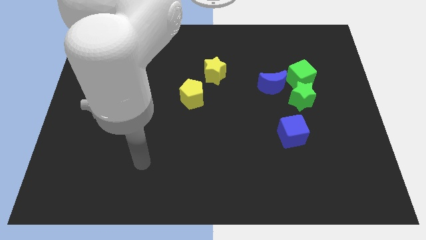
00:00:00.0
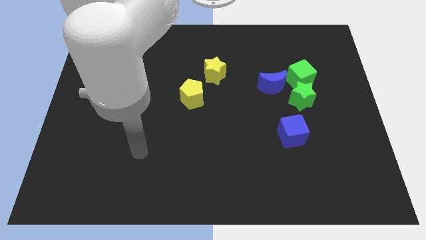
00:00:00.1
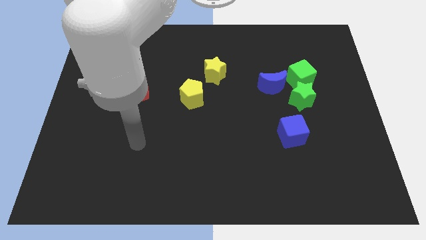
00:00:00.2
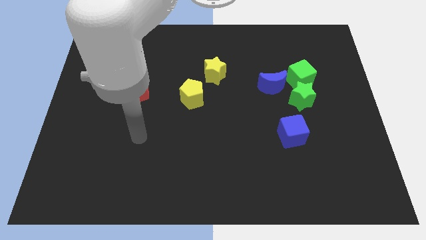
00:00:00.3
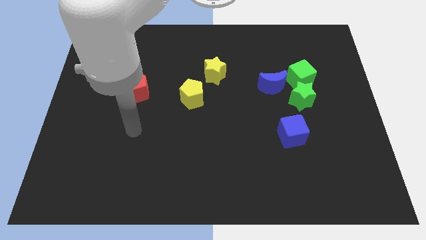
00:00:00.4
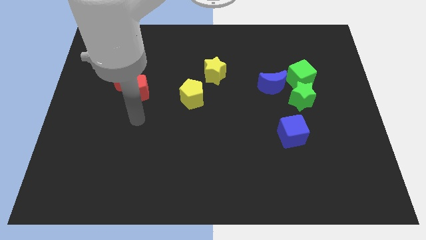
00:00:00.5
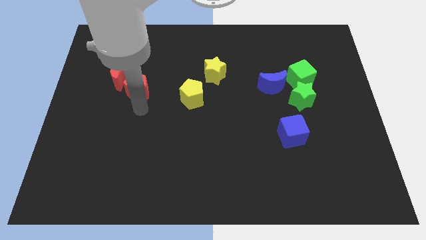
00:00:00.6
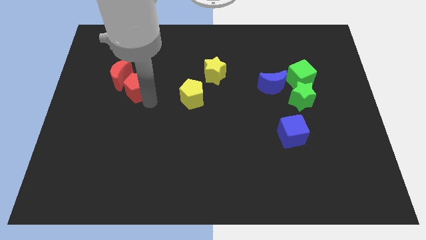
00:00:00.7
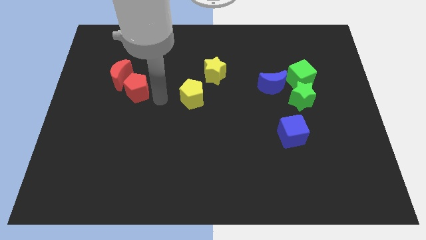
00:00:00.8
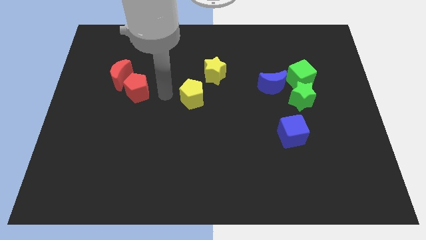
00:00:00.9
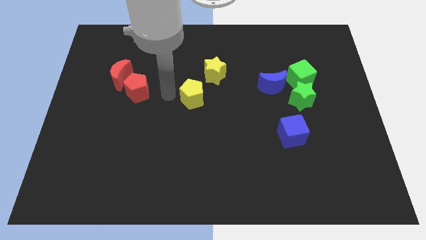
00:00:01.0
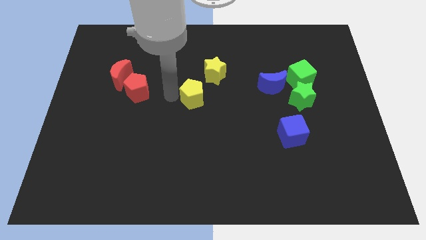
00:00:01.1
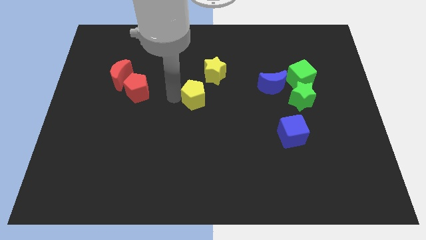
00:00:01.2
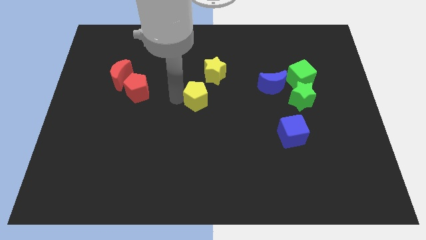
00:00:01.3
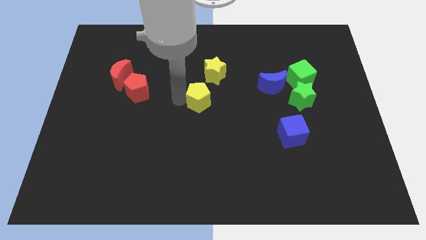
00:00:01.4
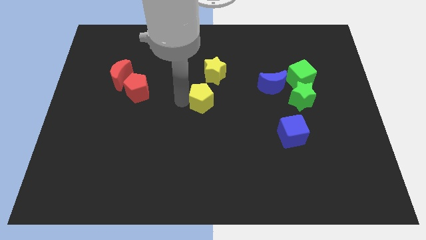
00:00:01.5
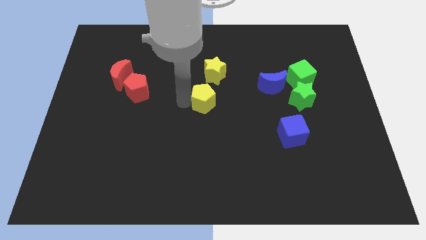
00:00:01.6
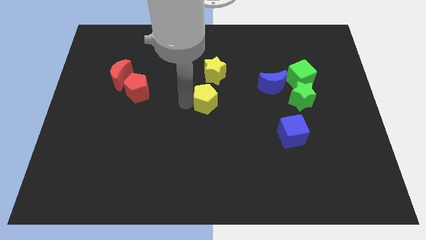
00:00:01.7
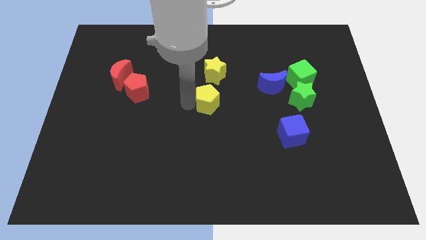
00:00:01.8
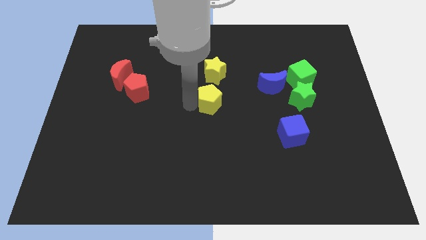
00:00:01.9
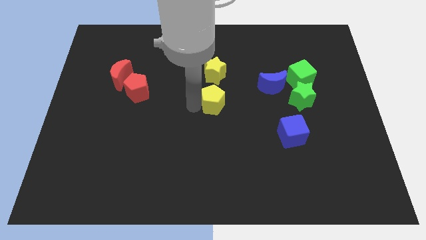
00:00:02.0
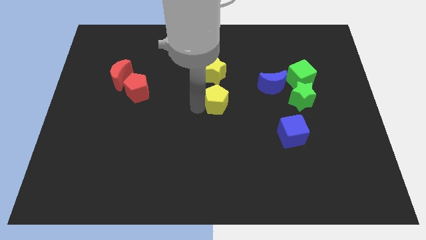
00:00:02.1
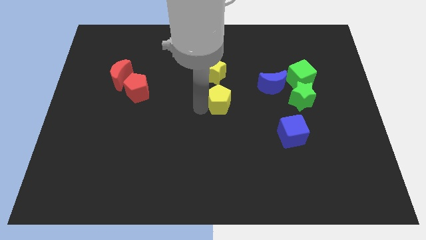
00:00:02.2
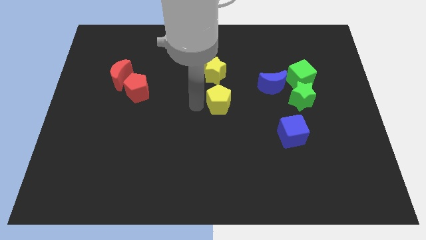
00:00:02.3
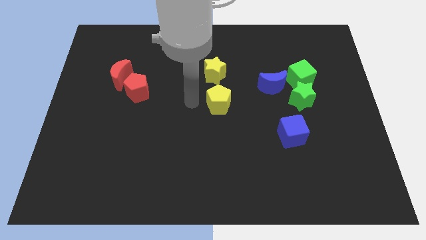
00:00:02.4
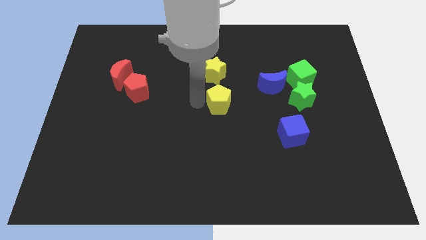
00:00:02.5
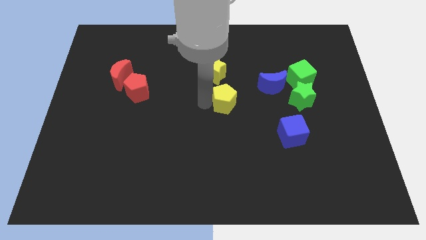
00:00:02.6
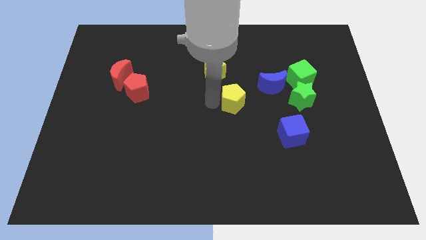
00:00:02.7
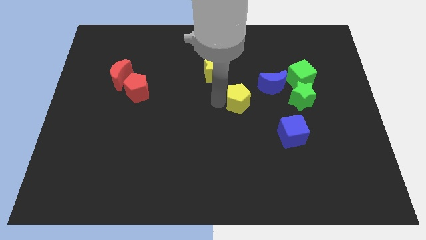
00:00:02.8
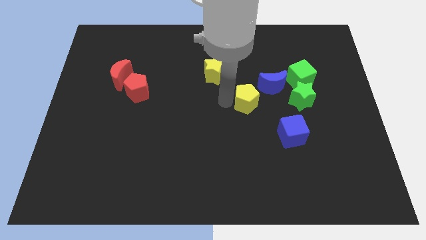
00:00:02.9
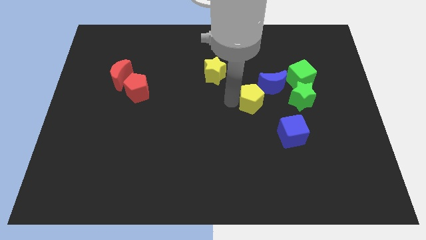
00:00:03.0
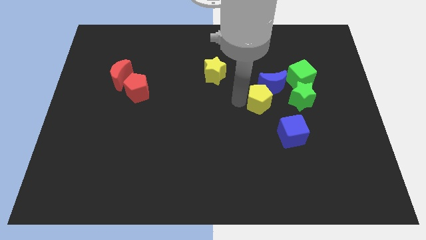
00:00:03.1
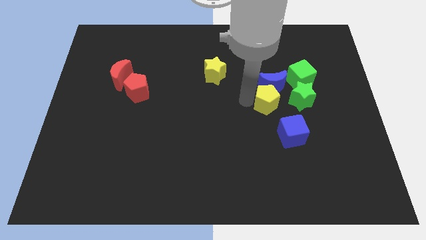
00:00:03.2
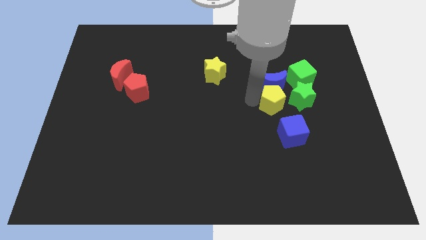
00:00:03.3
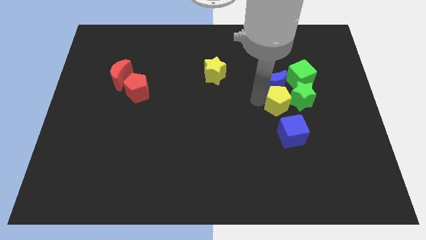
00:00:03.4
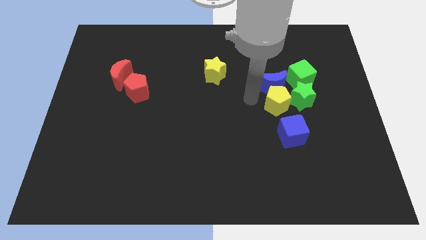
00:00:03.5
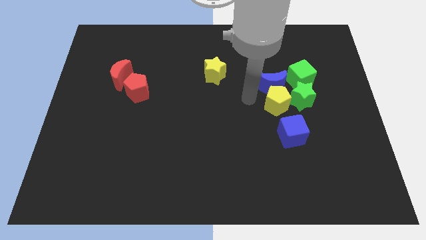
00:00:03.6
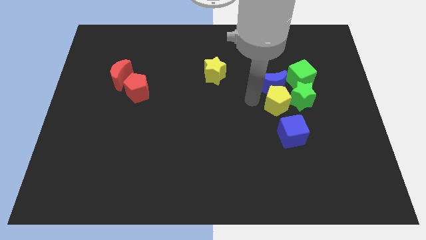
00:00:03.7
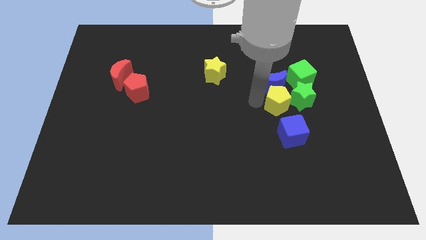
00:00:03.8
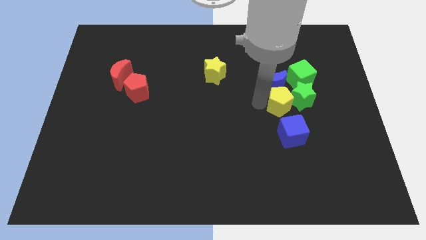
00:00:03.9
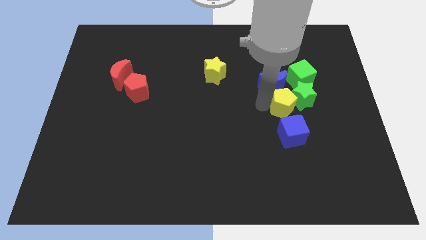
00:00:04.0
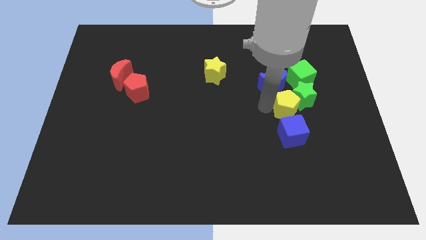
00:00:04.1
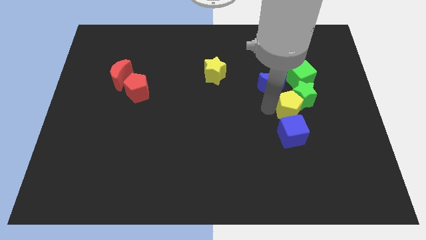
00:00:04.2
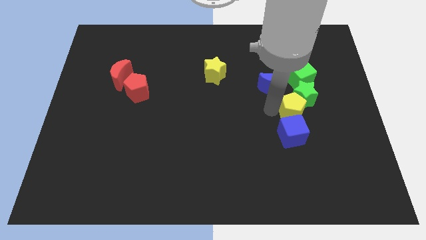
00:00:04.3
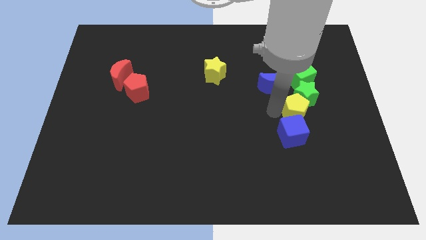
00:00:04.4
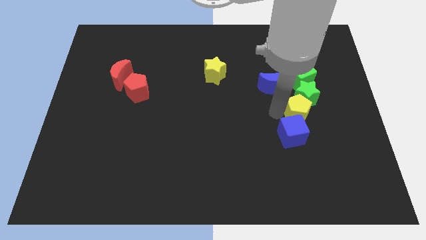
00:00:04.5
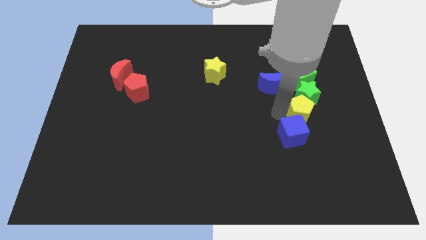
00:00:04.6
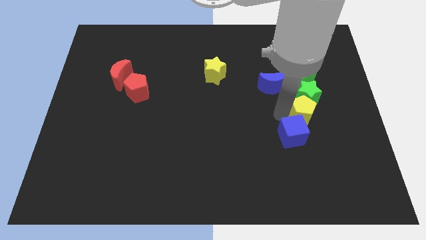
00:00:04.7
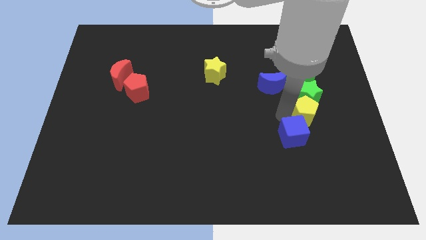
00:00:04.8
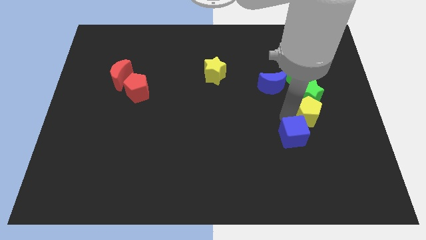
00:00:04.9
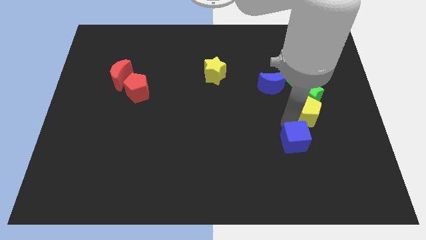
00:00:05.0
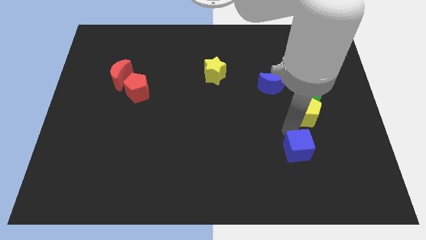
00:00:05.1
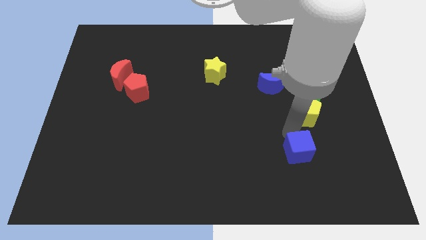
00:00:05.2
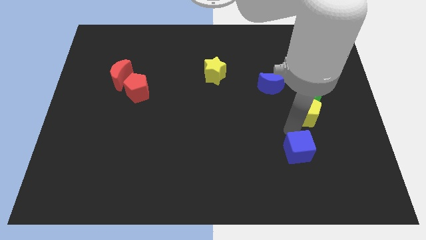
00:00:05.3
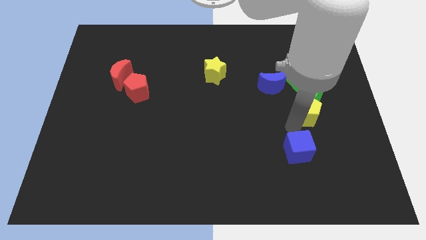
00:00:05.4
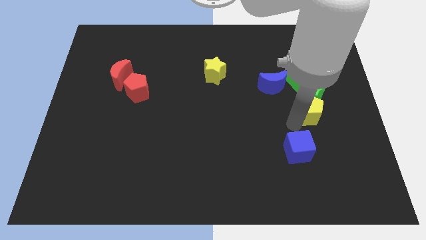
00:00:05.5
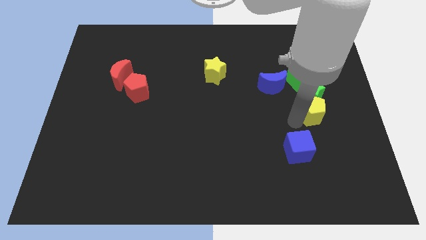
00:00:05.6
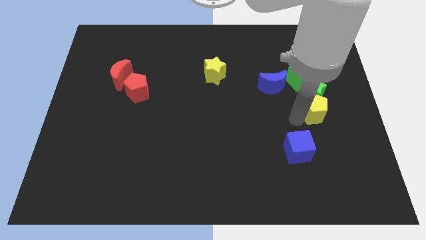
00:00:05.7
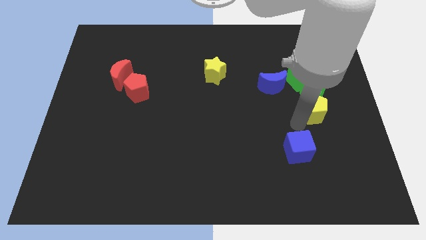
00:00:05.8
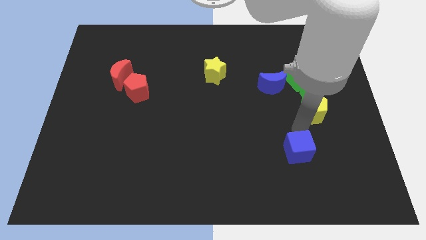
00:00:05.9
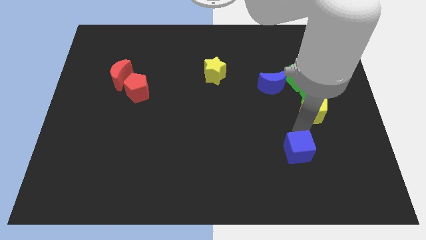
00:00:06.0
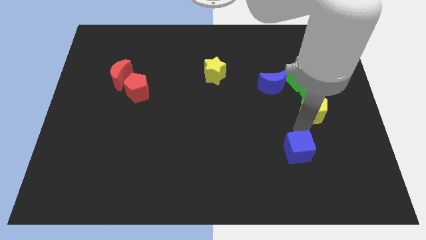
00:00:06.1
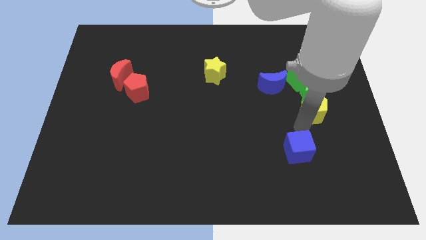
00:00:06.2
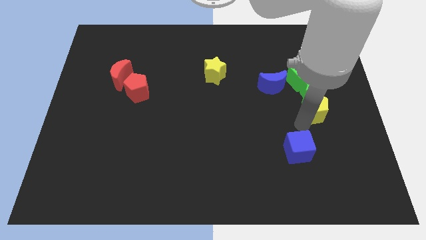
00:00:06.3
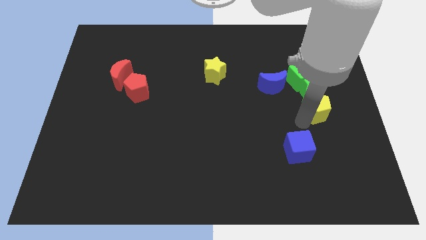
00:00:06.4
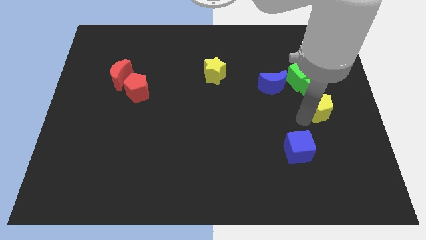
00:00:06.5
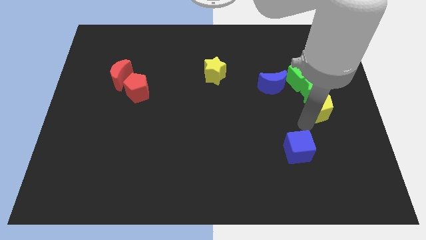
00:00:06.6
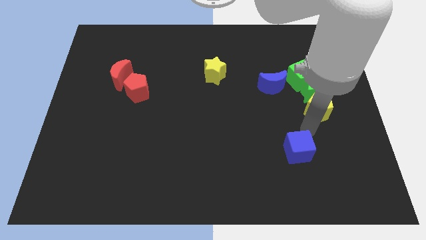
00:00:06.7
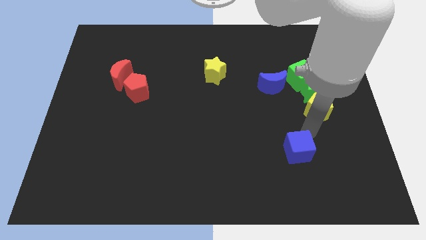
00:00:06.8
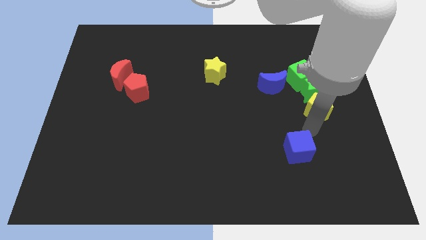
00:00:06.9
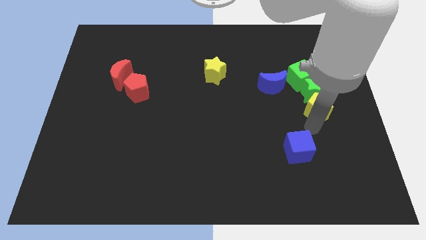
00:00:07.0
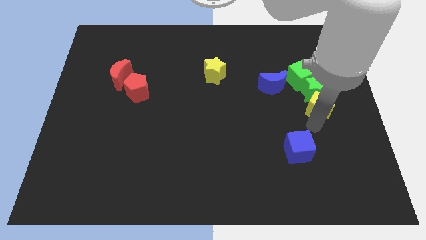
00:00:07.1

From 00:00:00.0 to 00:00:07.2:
move the yellow pentagon to the bottom right of the green cube
